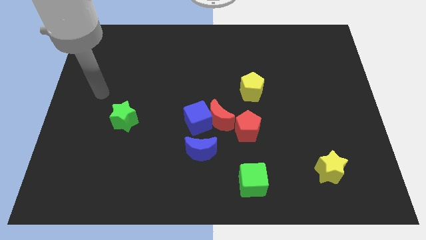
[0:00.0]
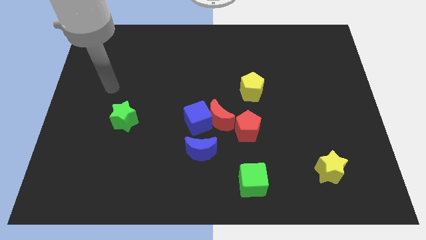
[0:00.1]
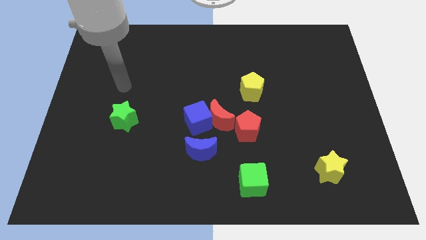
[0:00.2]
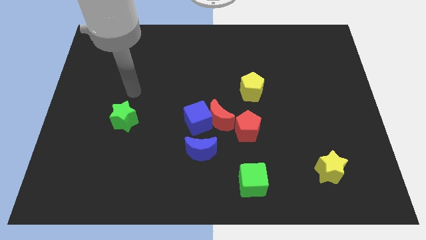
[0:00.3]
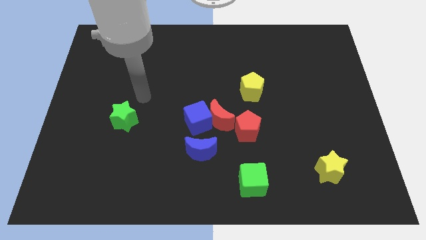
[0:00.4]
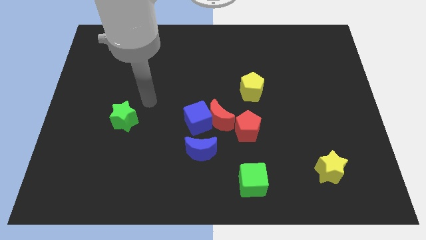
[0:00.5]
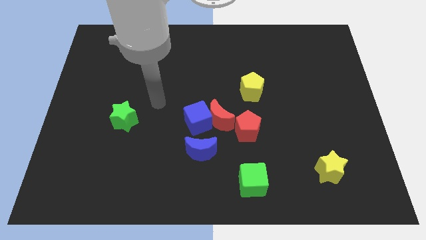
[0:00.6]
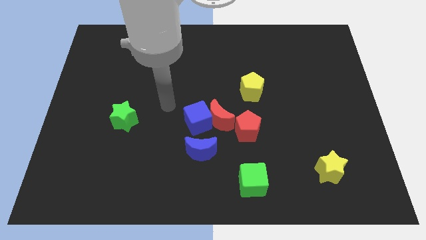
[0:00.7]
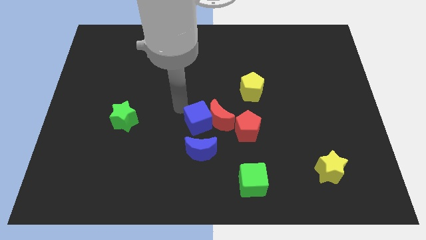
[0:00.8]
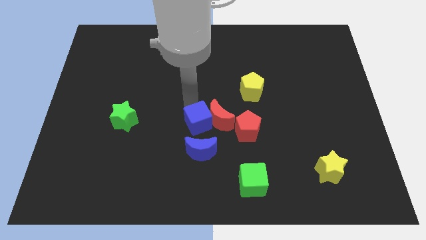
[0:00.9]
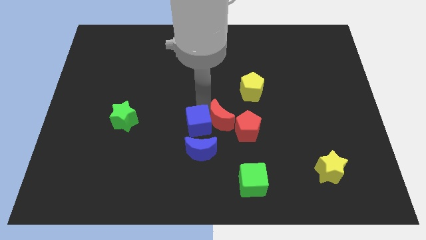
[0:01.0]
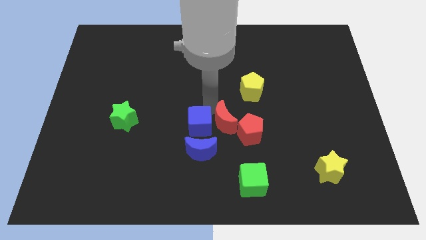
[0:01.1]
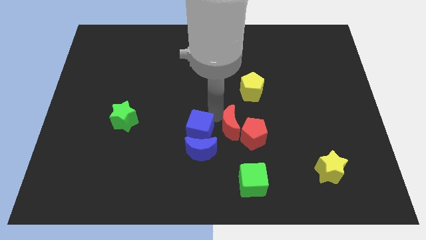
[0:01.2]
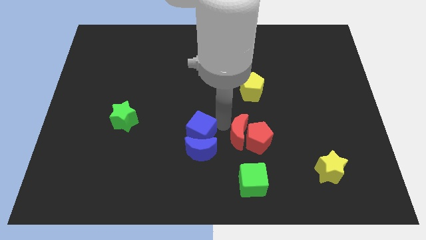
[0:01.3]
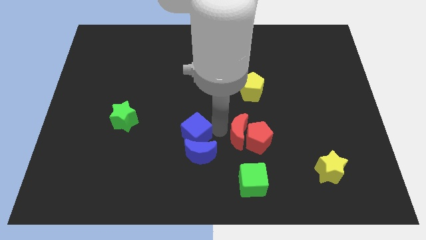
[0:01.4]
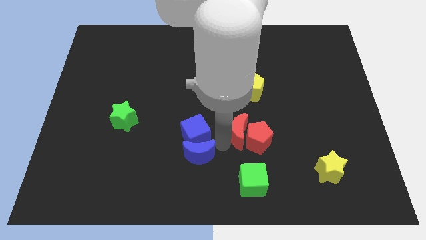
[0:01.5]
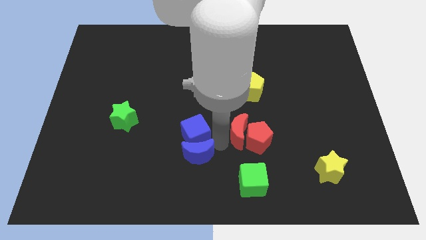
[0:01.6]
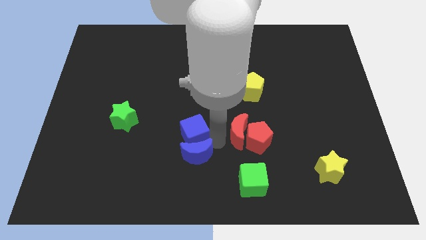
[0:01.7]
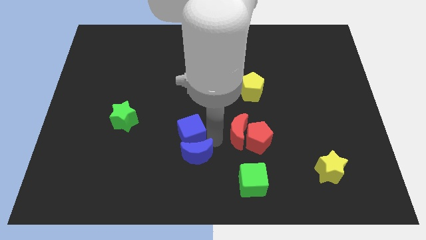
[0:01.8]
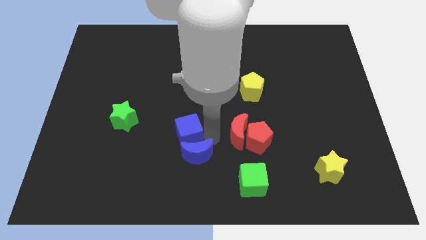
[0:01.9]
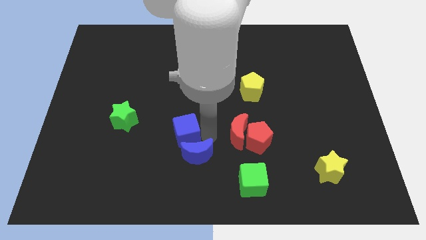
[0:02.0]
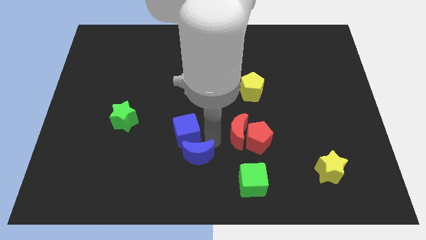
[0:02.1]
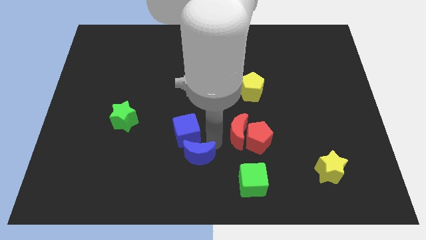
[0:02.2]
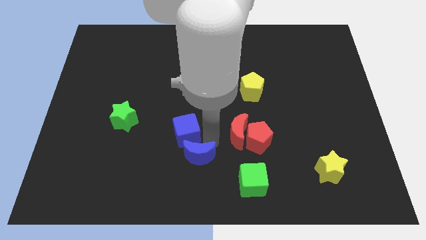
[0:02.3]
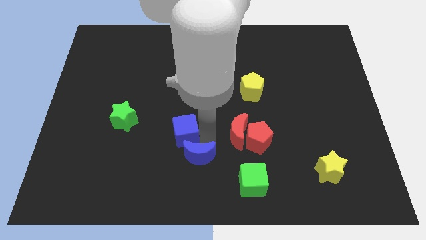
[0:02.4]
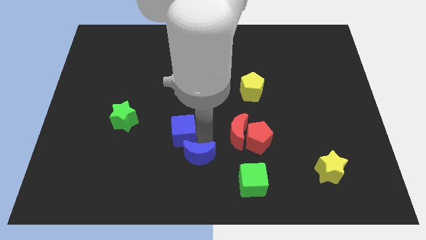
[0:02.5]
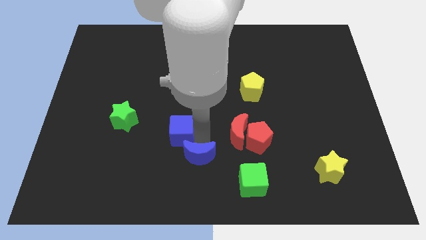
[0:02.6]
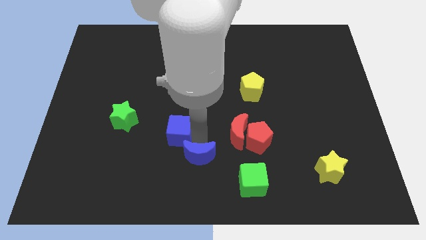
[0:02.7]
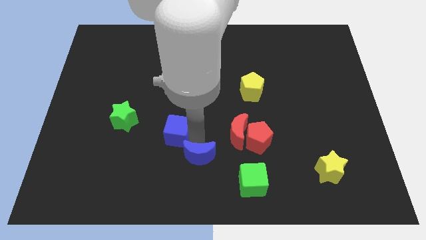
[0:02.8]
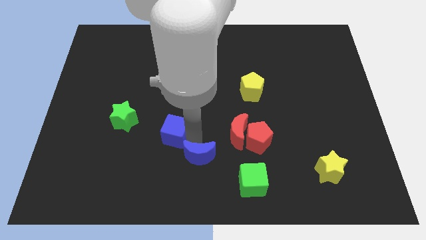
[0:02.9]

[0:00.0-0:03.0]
separate the blue cube from the red moon and blue moon

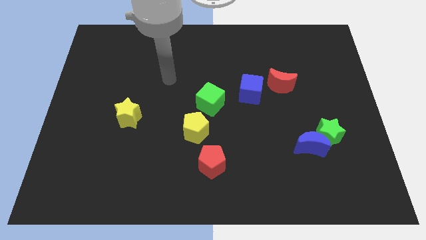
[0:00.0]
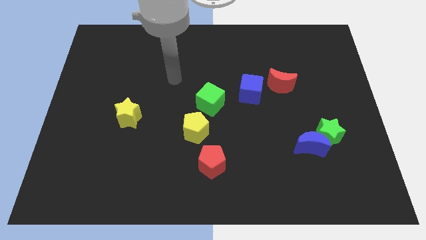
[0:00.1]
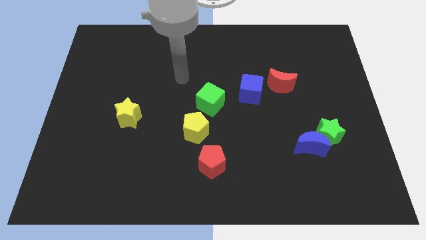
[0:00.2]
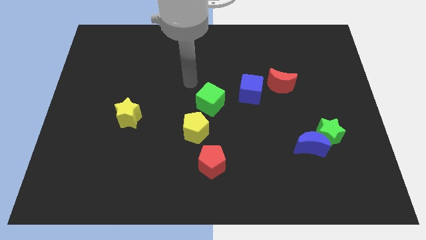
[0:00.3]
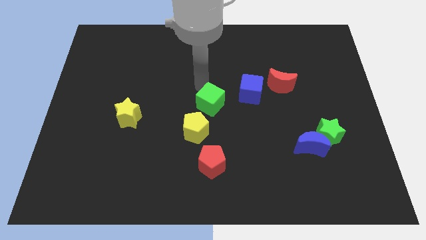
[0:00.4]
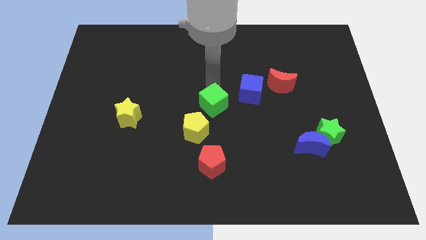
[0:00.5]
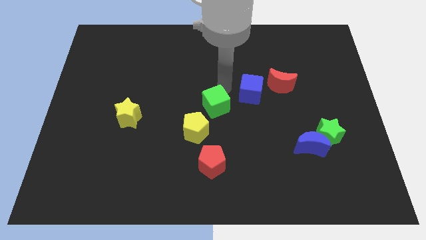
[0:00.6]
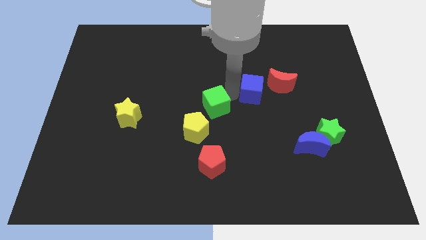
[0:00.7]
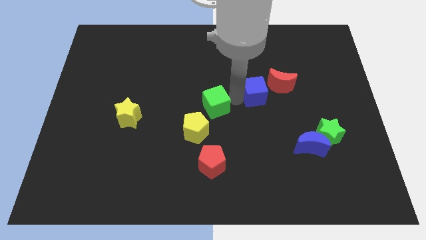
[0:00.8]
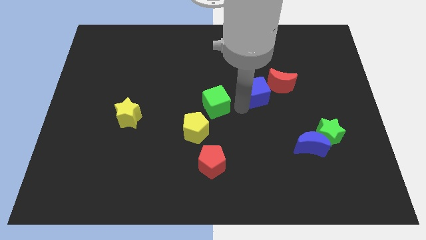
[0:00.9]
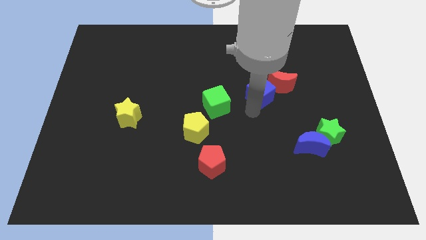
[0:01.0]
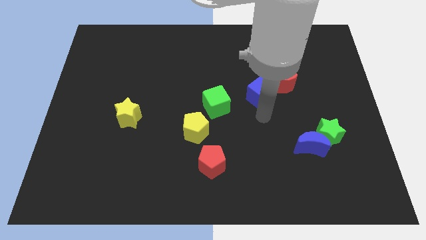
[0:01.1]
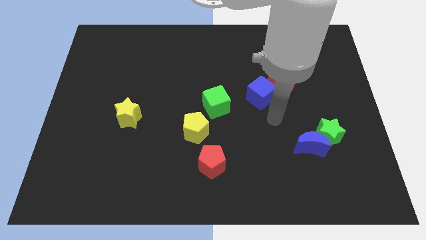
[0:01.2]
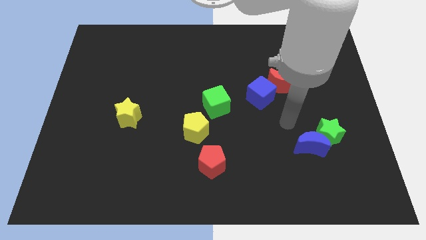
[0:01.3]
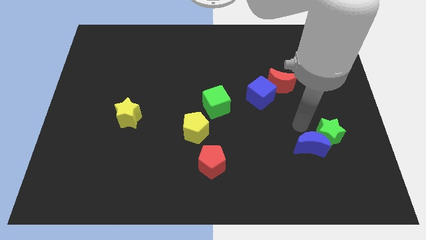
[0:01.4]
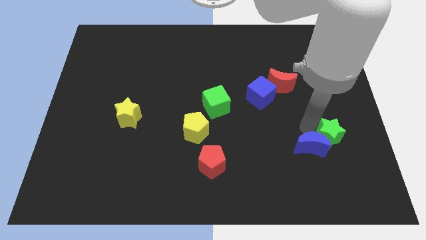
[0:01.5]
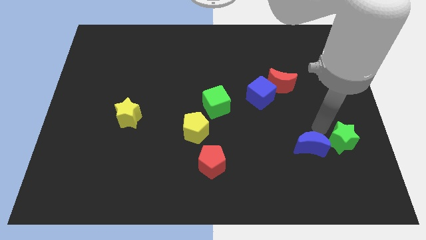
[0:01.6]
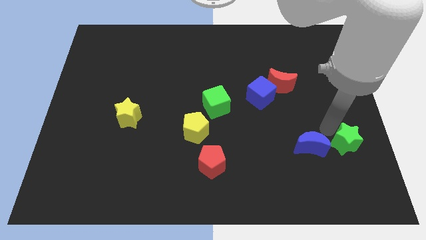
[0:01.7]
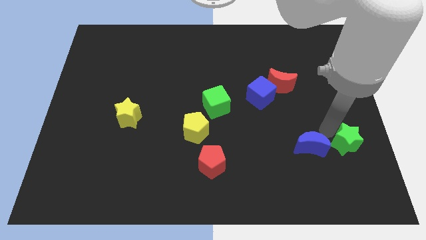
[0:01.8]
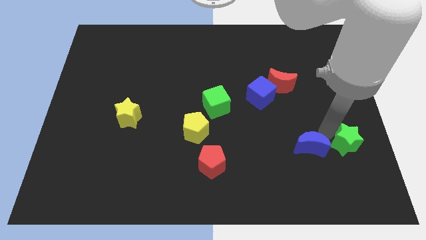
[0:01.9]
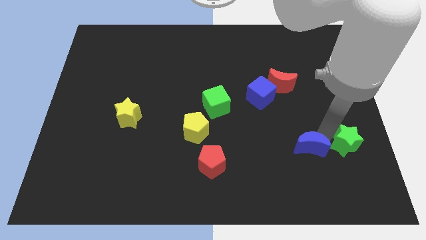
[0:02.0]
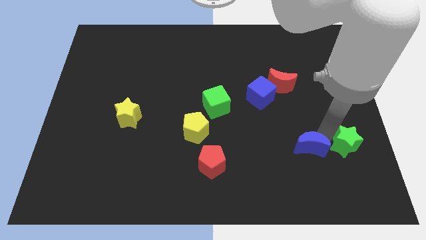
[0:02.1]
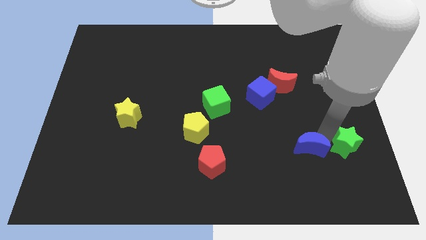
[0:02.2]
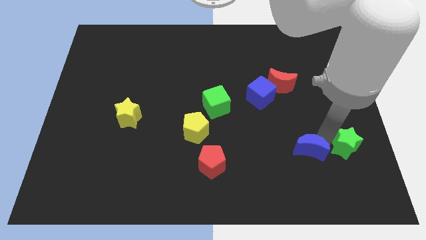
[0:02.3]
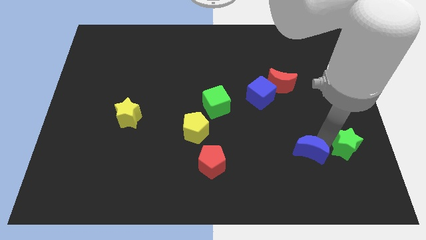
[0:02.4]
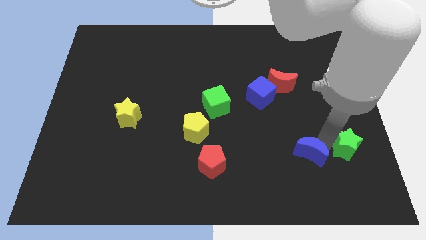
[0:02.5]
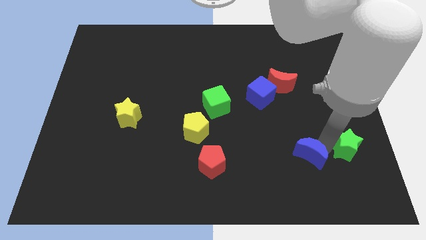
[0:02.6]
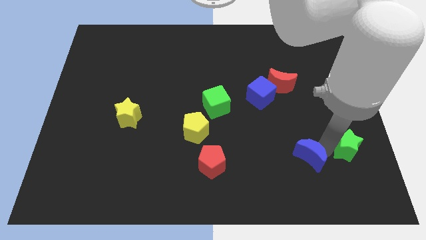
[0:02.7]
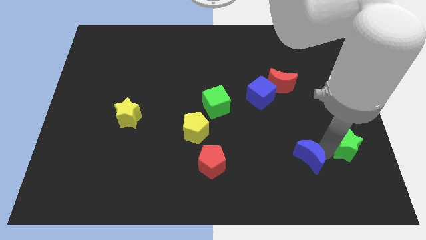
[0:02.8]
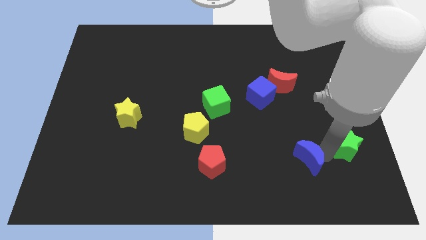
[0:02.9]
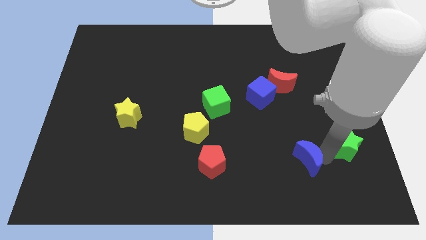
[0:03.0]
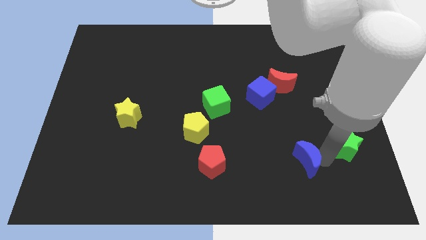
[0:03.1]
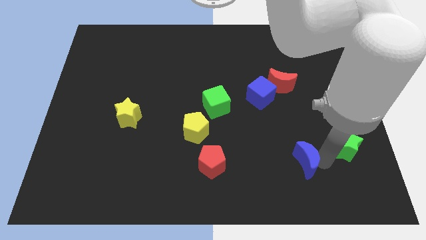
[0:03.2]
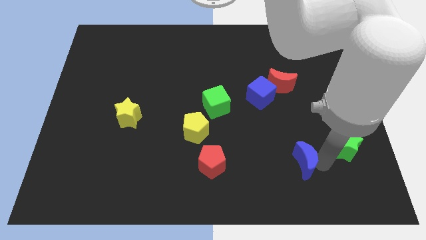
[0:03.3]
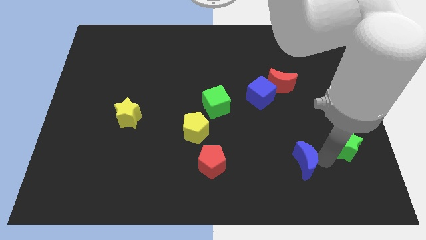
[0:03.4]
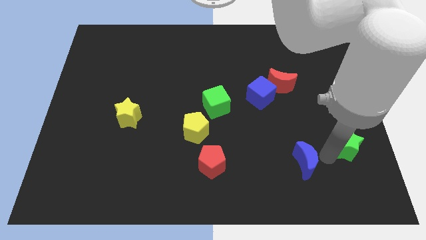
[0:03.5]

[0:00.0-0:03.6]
pull the blue moon apart from the green star

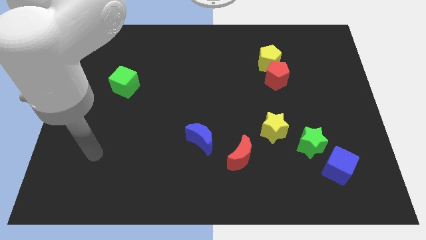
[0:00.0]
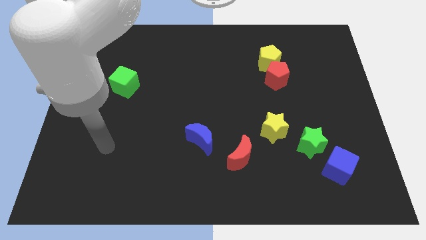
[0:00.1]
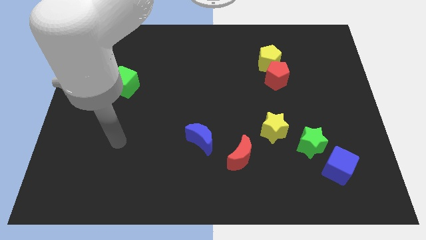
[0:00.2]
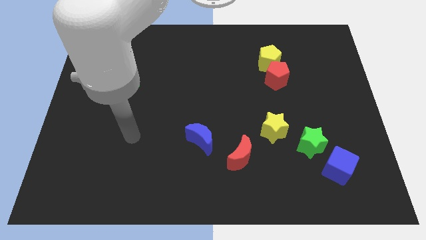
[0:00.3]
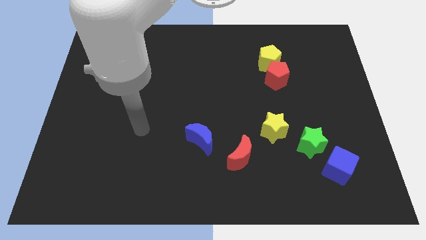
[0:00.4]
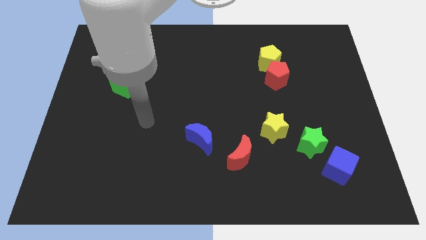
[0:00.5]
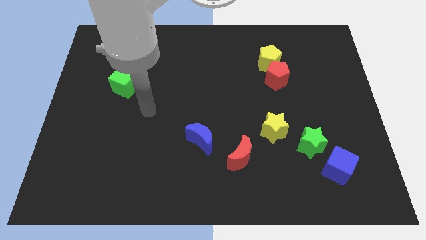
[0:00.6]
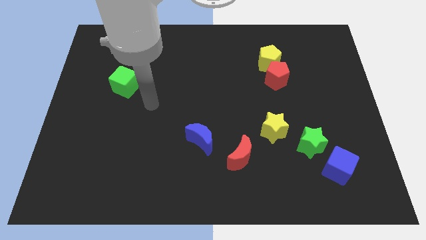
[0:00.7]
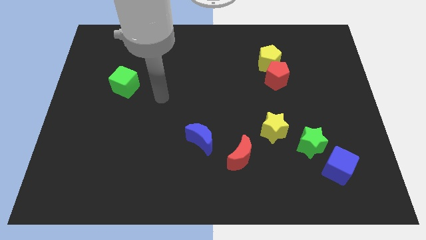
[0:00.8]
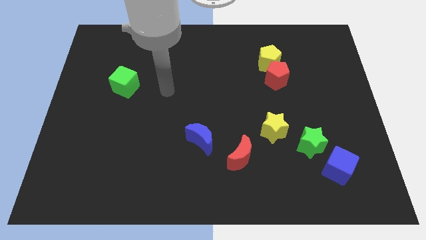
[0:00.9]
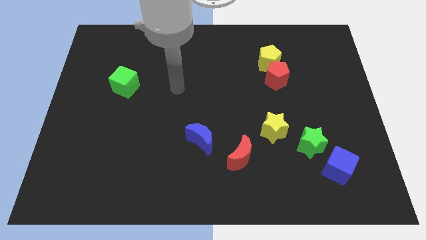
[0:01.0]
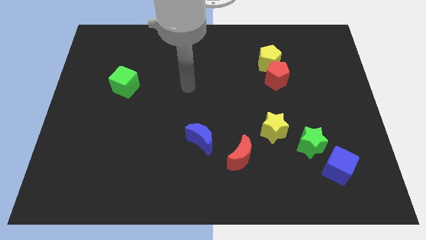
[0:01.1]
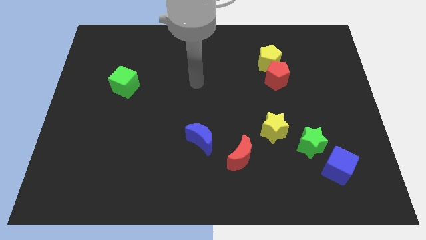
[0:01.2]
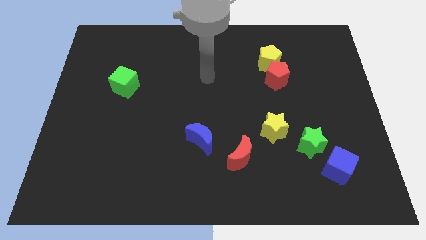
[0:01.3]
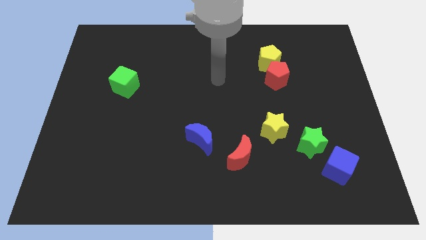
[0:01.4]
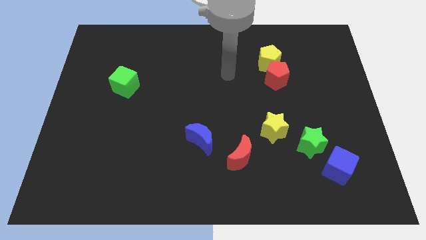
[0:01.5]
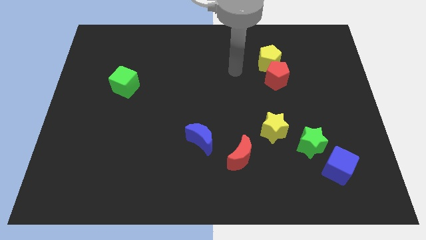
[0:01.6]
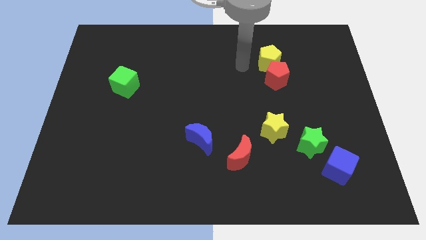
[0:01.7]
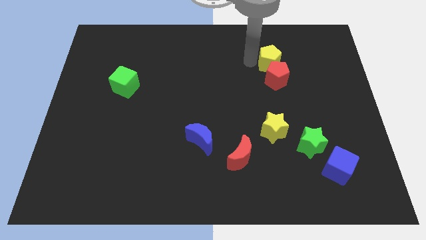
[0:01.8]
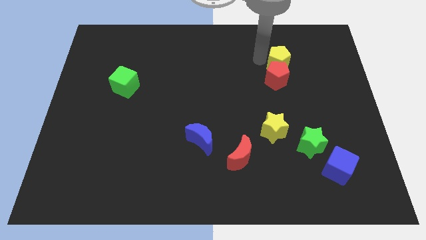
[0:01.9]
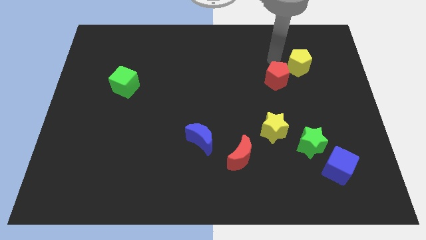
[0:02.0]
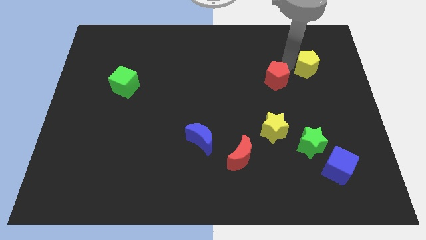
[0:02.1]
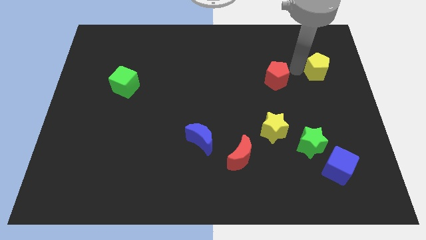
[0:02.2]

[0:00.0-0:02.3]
separate the red pentagon from the yellow pentagon

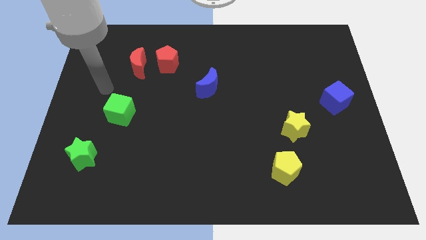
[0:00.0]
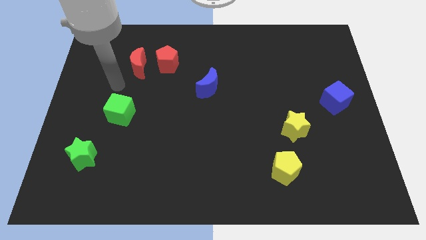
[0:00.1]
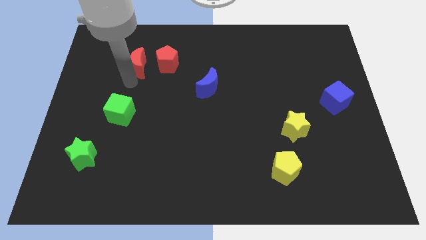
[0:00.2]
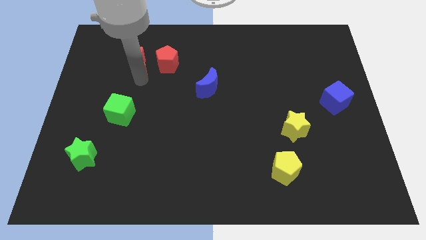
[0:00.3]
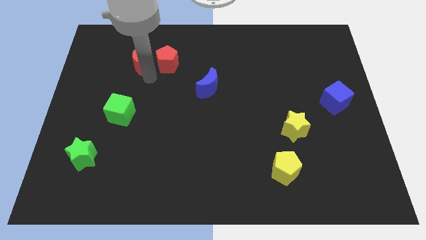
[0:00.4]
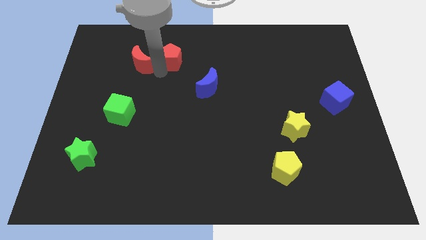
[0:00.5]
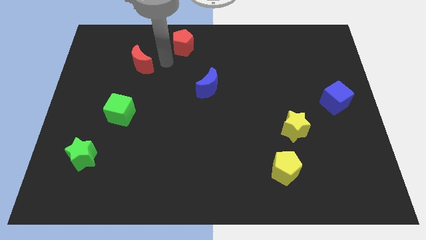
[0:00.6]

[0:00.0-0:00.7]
separate the red moon from the red pentagon

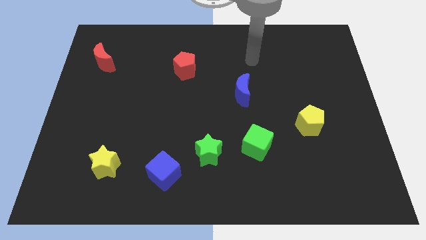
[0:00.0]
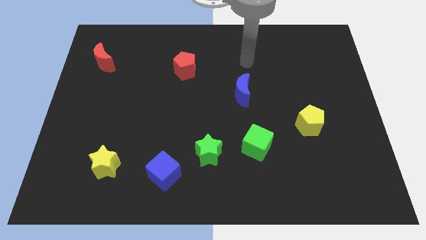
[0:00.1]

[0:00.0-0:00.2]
move the blue cube away from the green star
